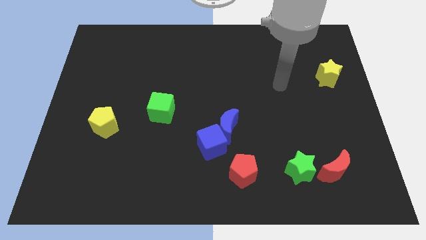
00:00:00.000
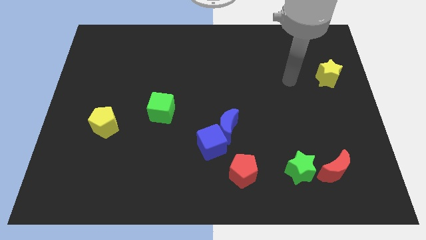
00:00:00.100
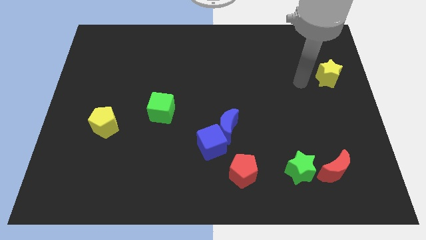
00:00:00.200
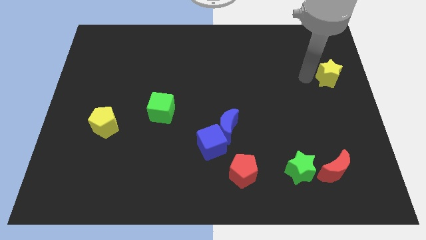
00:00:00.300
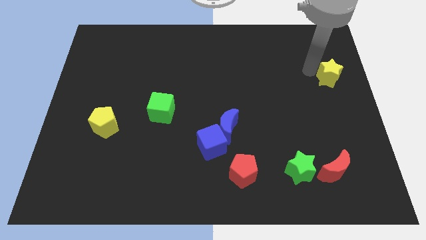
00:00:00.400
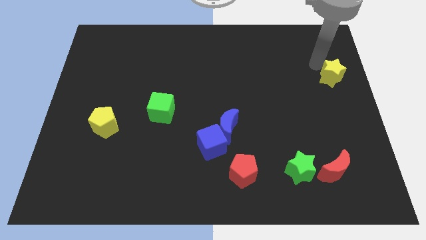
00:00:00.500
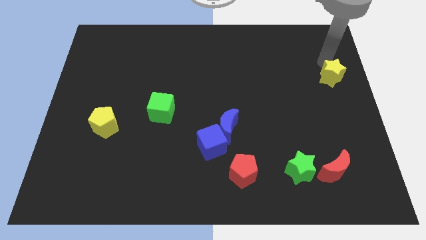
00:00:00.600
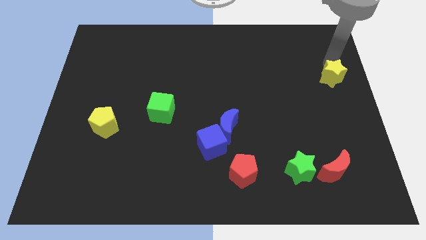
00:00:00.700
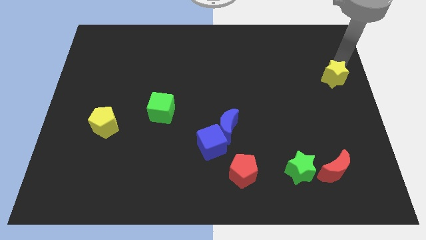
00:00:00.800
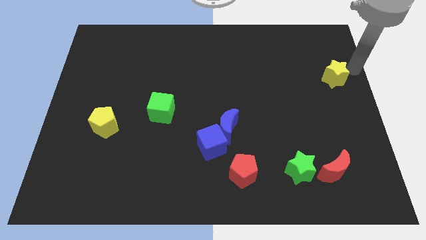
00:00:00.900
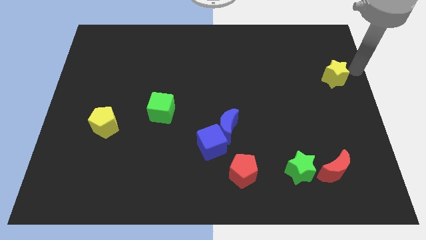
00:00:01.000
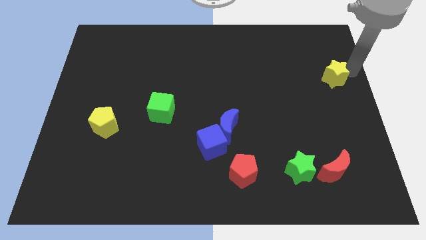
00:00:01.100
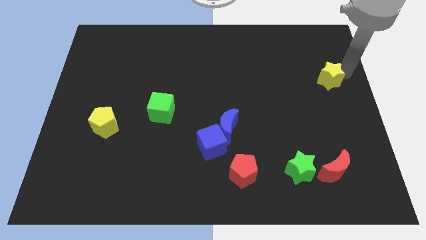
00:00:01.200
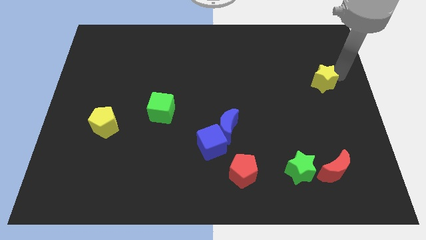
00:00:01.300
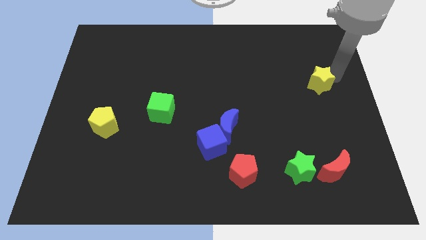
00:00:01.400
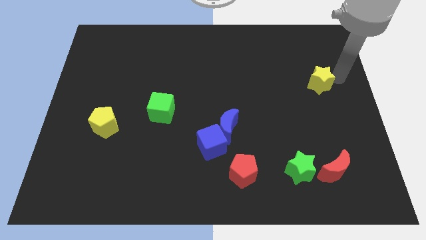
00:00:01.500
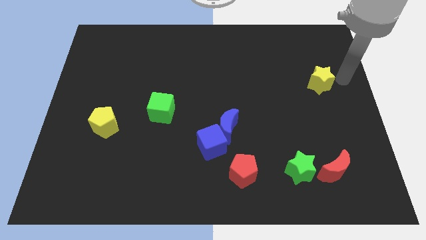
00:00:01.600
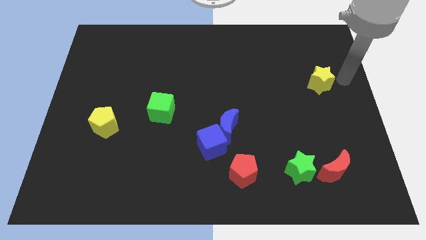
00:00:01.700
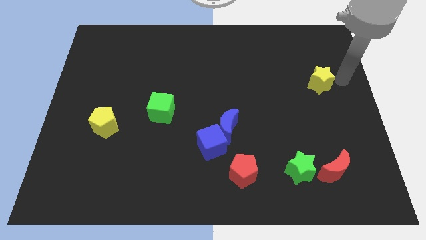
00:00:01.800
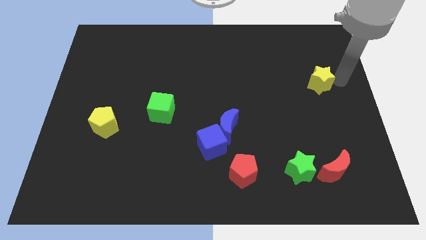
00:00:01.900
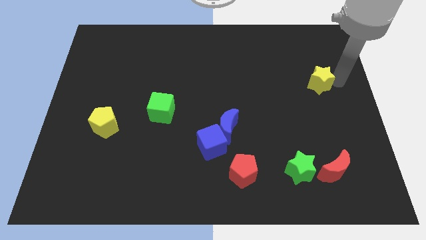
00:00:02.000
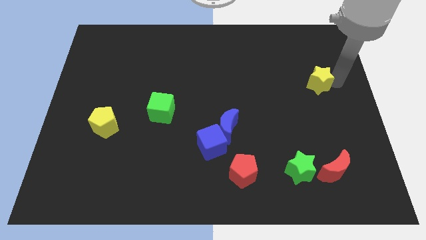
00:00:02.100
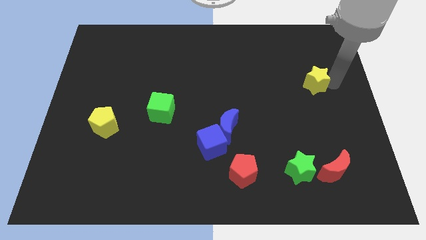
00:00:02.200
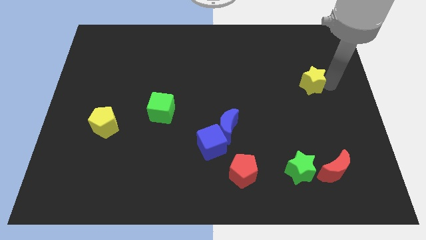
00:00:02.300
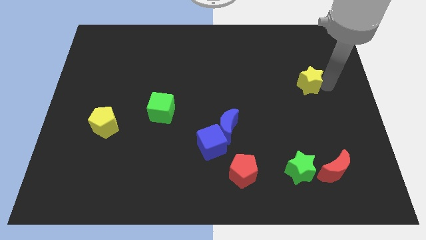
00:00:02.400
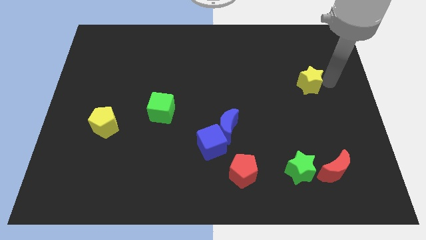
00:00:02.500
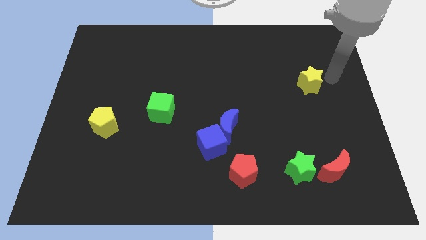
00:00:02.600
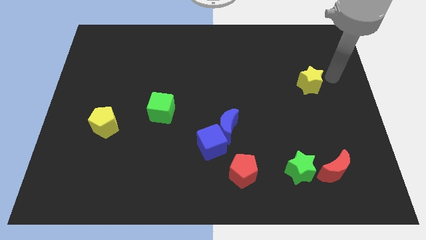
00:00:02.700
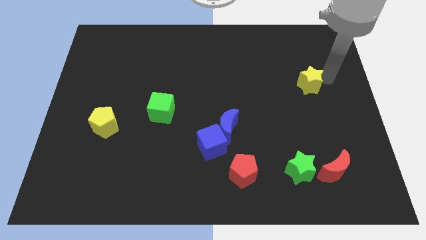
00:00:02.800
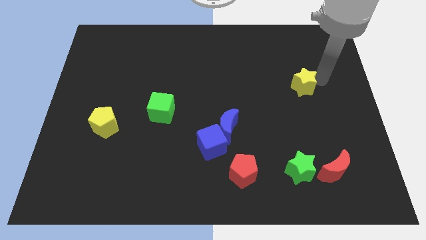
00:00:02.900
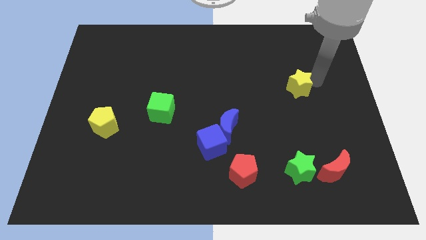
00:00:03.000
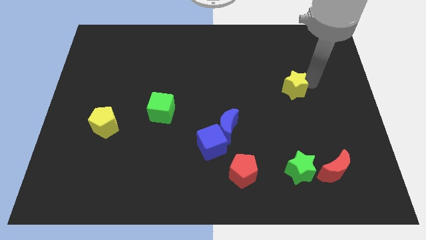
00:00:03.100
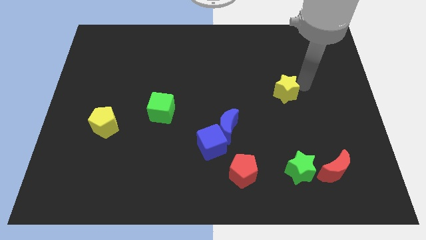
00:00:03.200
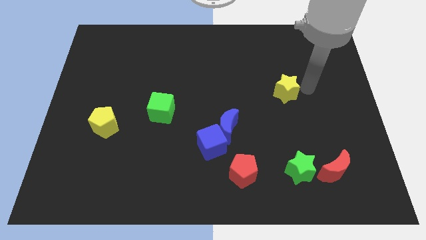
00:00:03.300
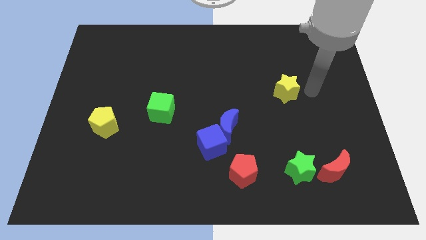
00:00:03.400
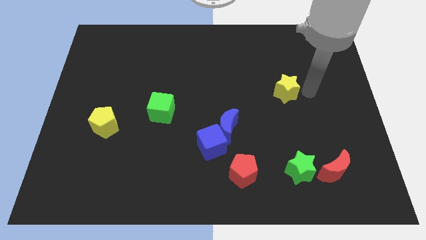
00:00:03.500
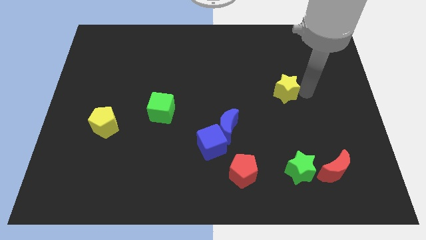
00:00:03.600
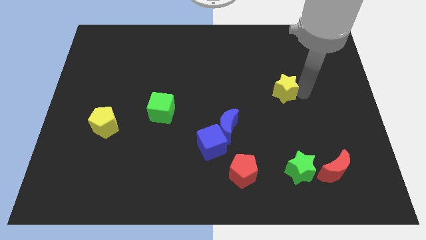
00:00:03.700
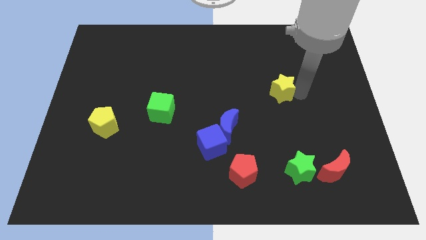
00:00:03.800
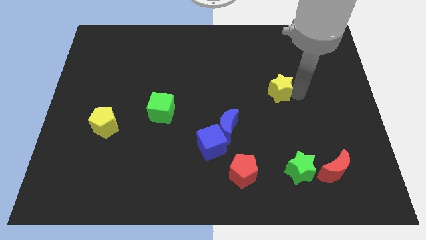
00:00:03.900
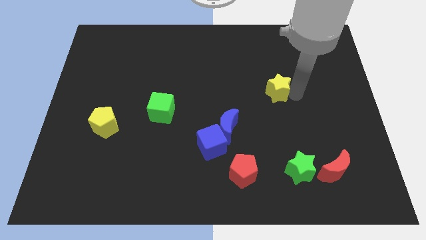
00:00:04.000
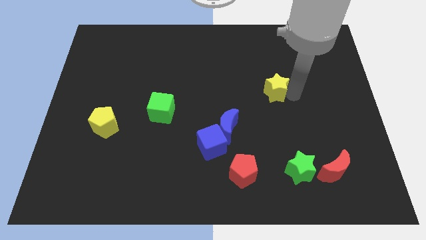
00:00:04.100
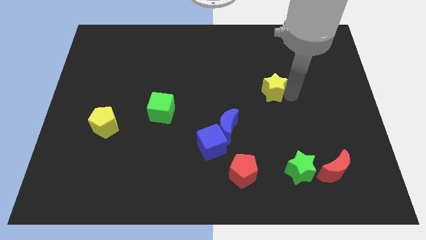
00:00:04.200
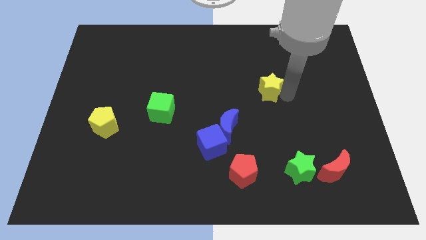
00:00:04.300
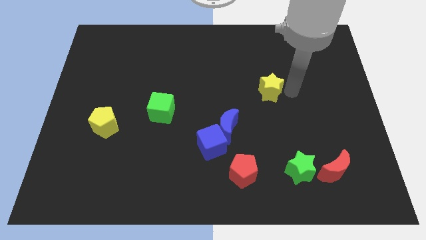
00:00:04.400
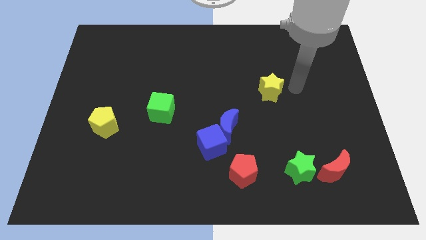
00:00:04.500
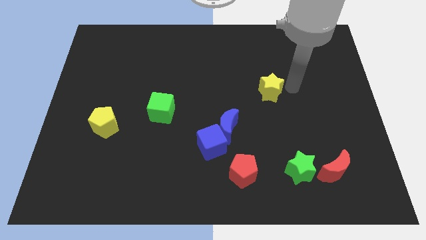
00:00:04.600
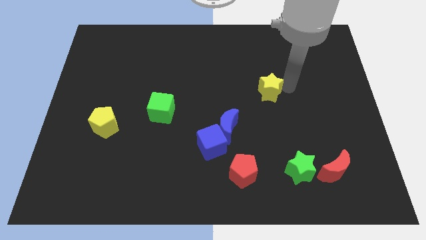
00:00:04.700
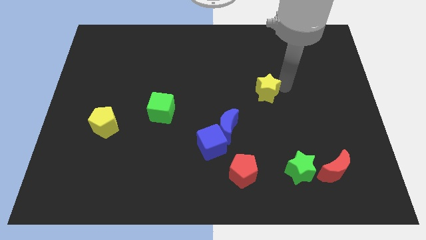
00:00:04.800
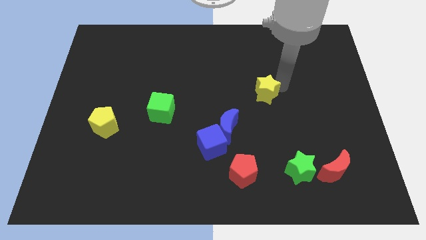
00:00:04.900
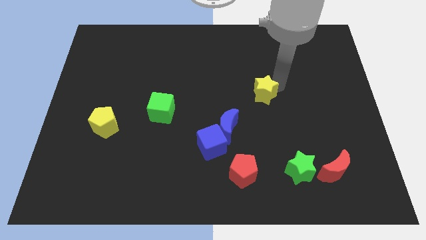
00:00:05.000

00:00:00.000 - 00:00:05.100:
slide the yellow star to the center
